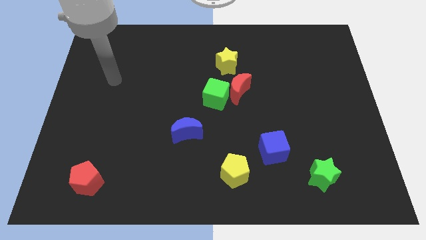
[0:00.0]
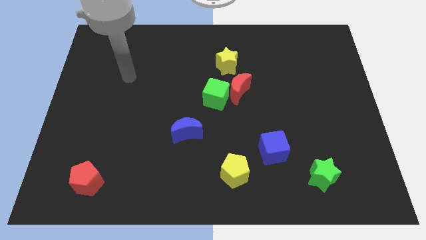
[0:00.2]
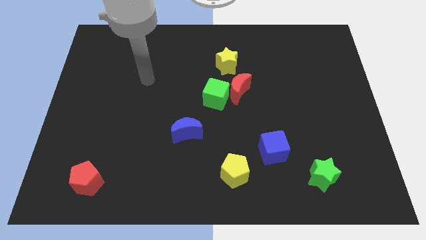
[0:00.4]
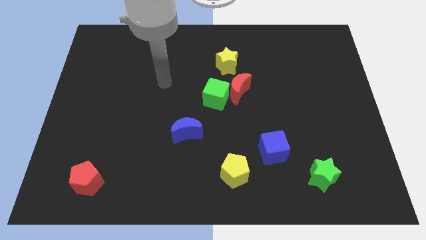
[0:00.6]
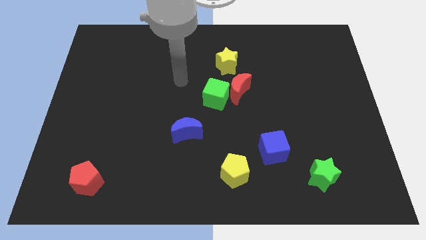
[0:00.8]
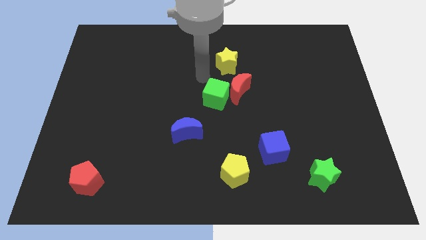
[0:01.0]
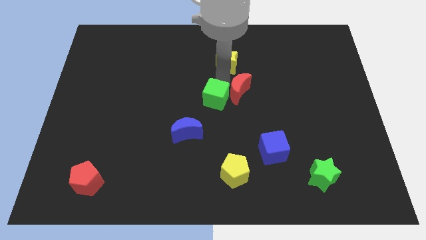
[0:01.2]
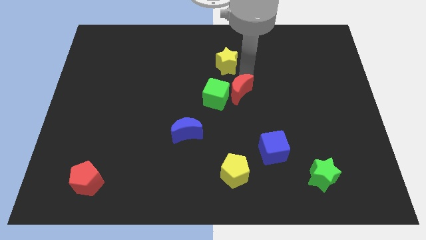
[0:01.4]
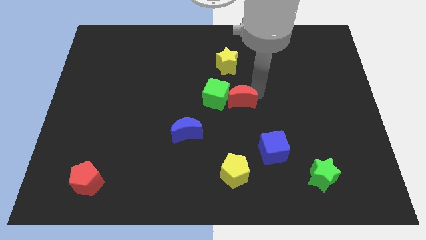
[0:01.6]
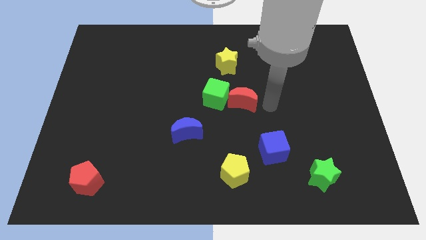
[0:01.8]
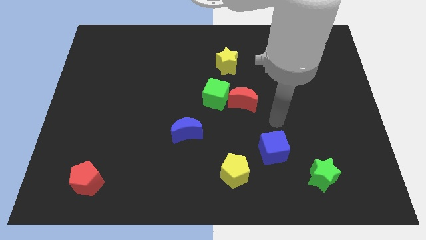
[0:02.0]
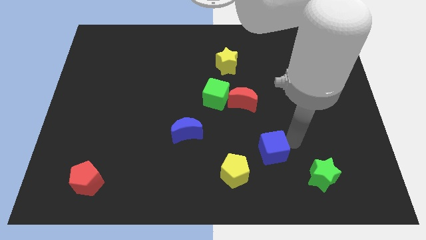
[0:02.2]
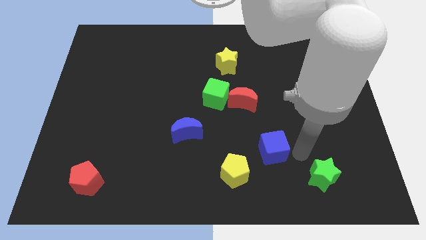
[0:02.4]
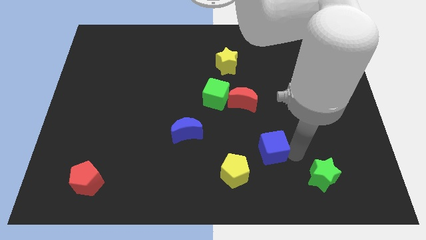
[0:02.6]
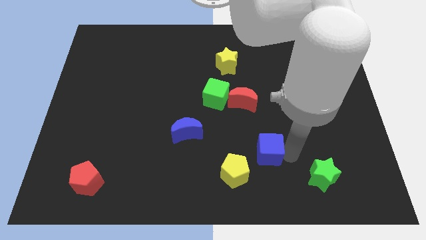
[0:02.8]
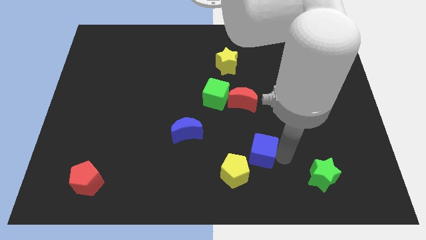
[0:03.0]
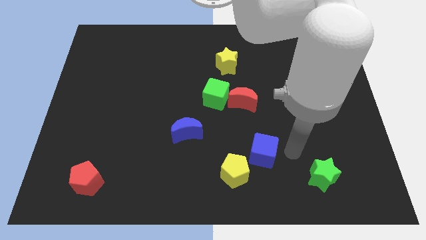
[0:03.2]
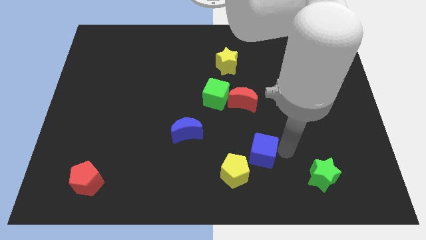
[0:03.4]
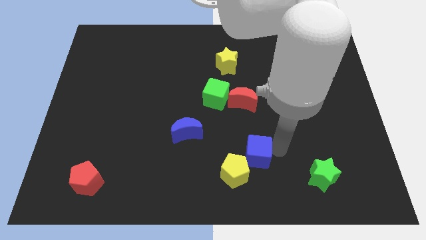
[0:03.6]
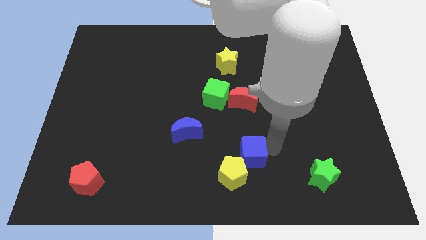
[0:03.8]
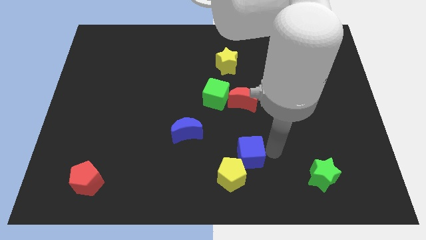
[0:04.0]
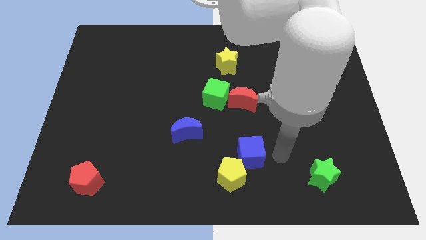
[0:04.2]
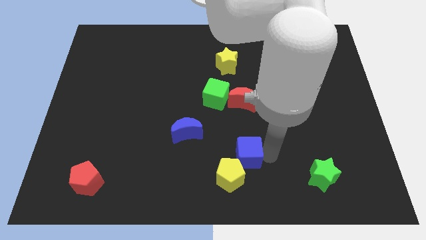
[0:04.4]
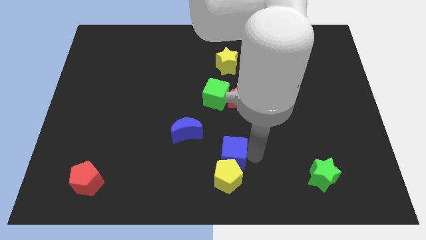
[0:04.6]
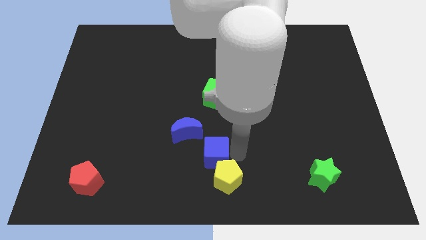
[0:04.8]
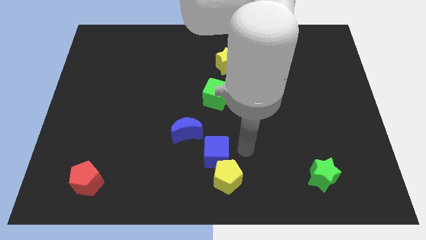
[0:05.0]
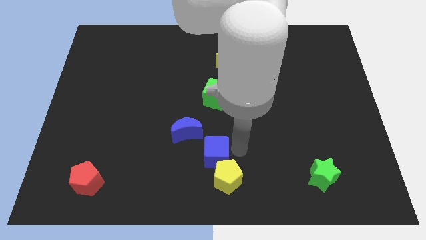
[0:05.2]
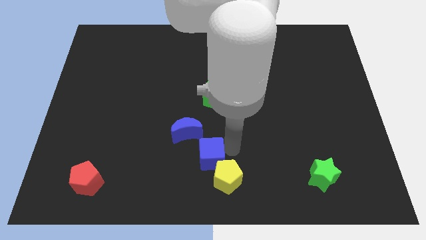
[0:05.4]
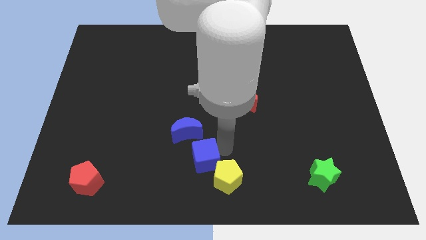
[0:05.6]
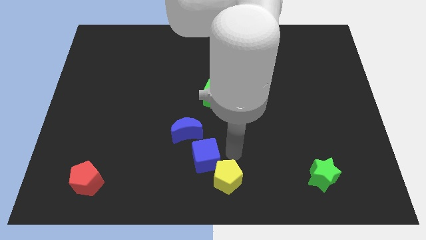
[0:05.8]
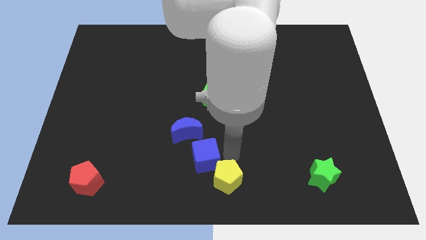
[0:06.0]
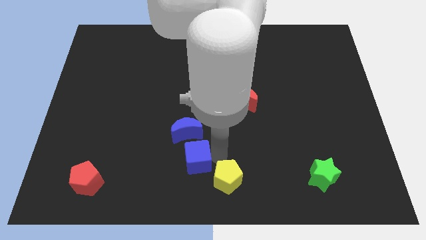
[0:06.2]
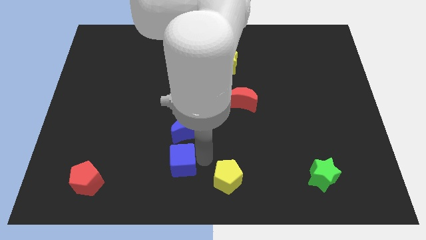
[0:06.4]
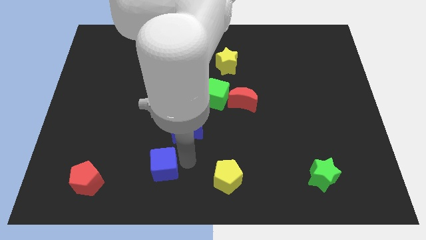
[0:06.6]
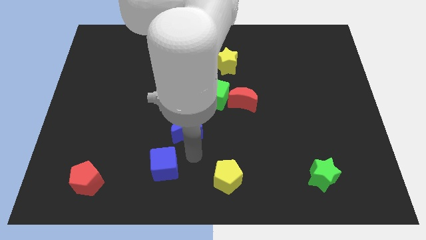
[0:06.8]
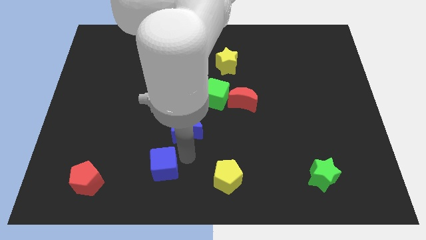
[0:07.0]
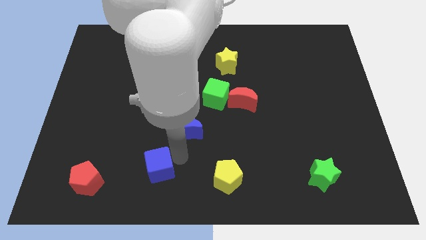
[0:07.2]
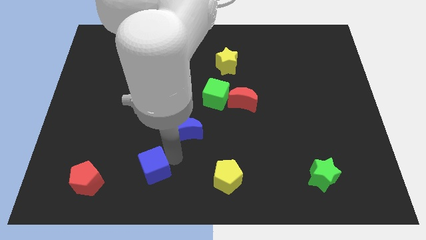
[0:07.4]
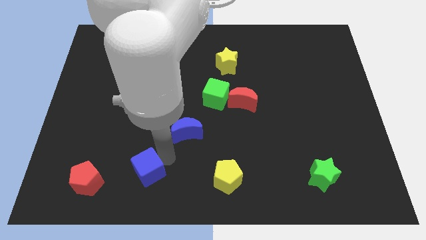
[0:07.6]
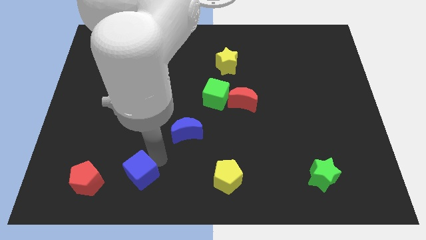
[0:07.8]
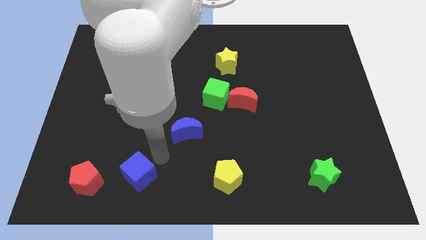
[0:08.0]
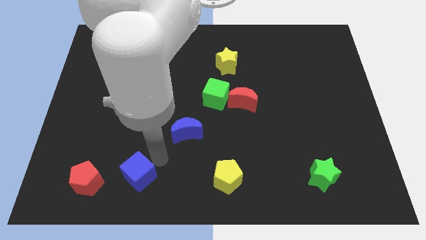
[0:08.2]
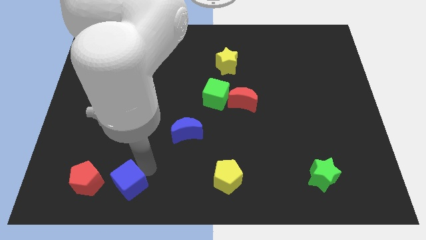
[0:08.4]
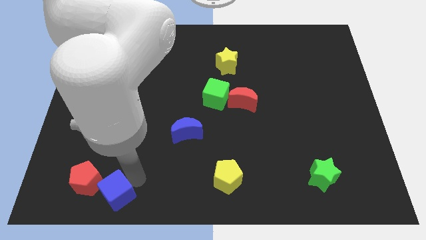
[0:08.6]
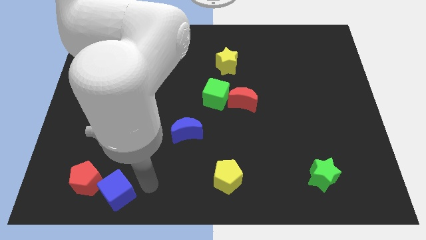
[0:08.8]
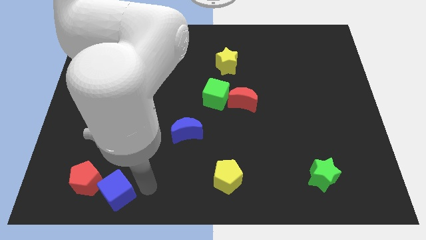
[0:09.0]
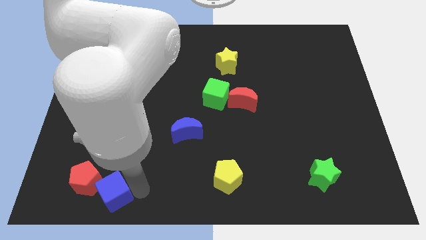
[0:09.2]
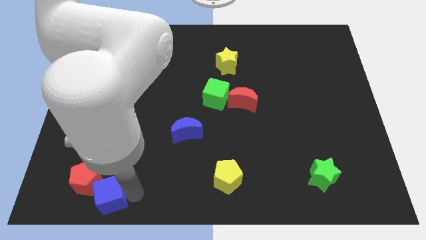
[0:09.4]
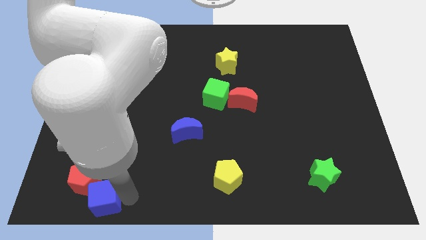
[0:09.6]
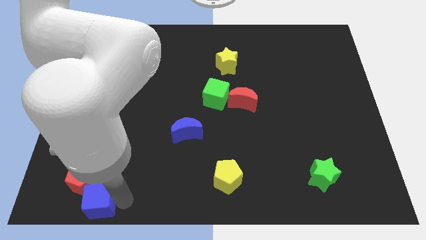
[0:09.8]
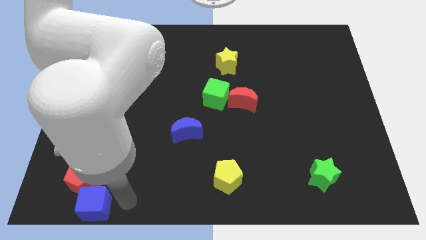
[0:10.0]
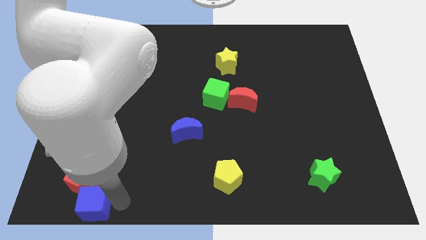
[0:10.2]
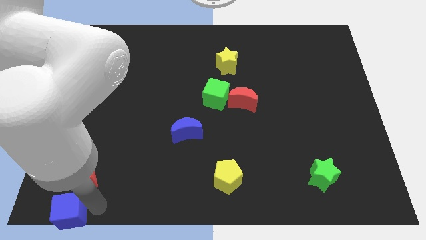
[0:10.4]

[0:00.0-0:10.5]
move the blue cube to the lower left corner
